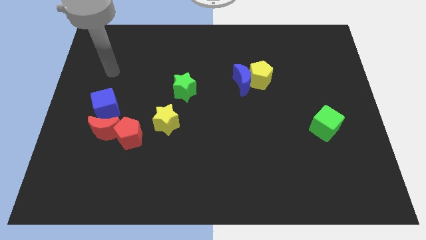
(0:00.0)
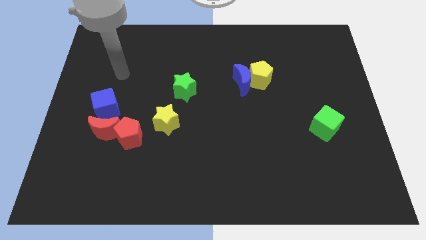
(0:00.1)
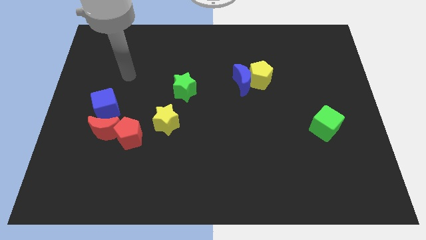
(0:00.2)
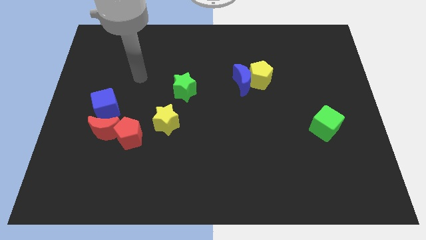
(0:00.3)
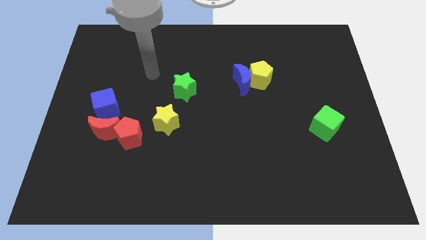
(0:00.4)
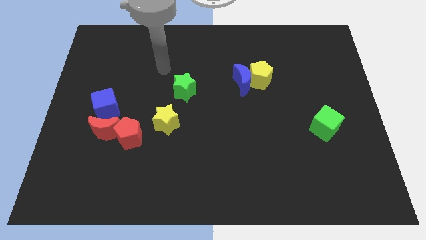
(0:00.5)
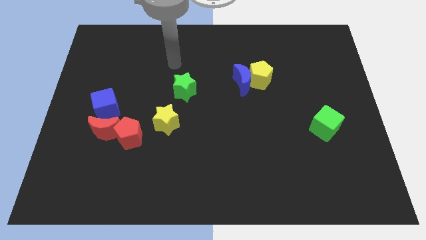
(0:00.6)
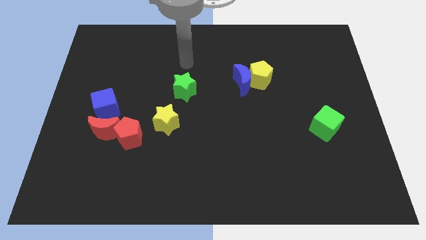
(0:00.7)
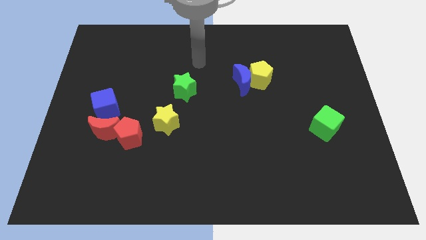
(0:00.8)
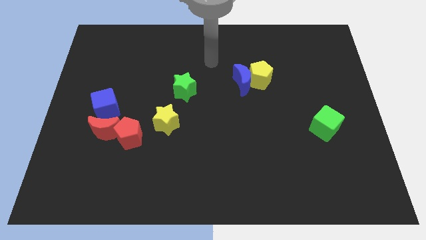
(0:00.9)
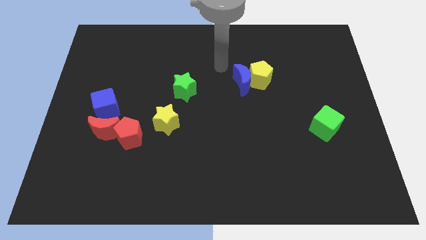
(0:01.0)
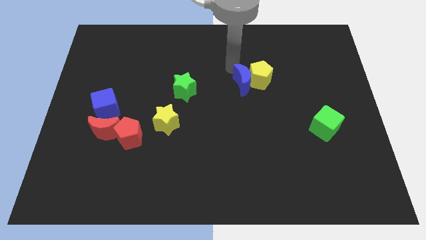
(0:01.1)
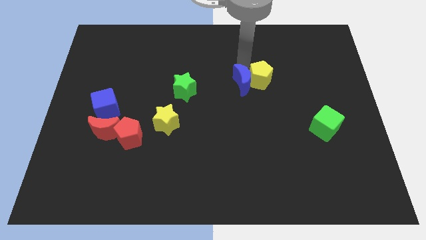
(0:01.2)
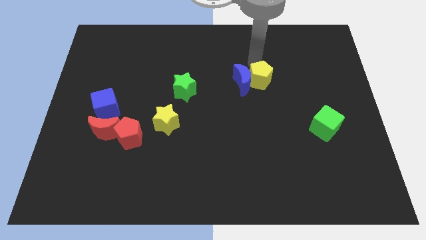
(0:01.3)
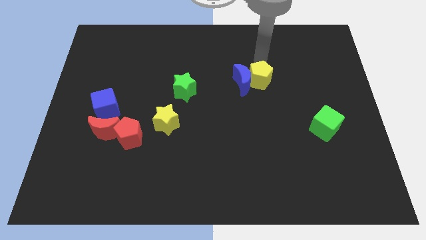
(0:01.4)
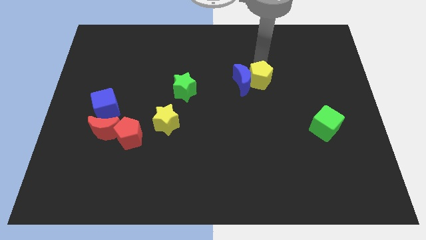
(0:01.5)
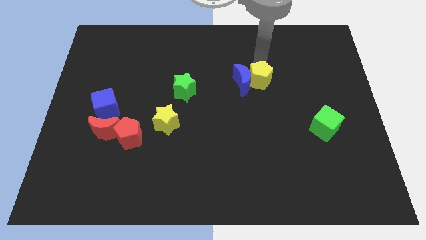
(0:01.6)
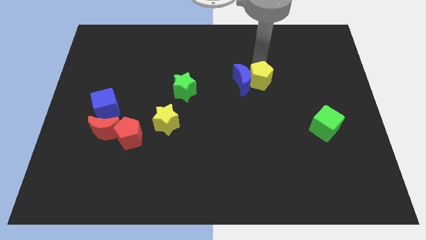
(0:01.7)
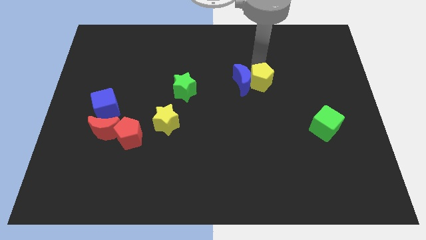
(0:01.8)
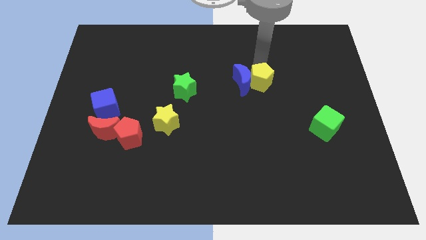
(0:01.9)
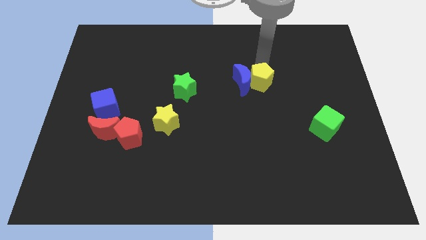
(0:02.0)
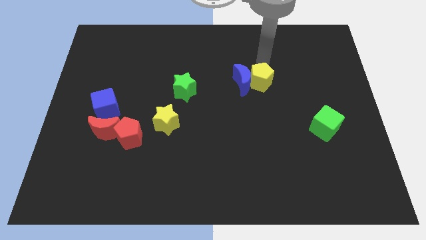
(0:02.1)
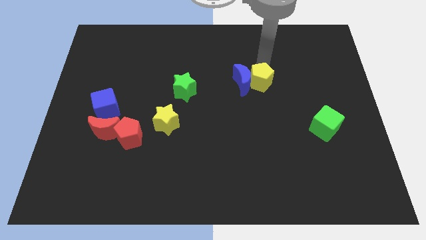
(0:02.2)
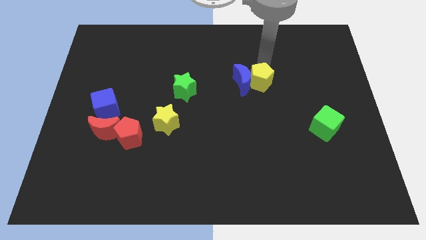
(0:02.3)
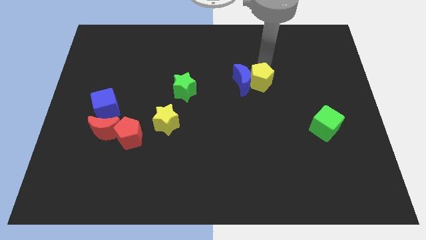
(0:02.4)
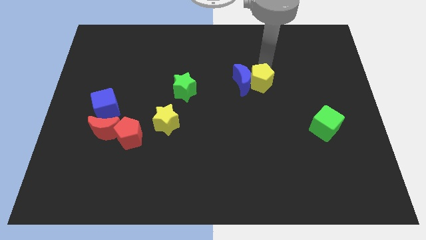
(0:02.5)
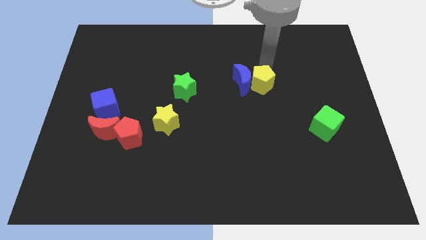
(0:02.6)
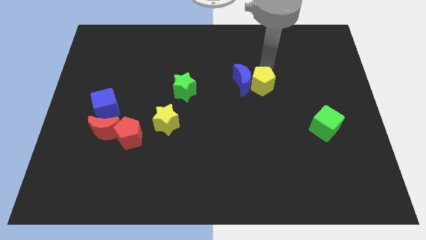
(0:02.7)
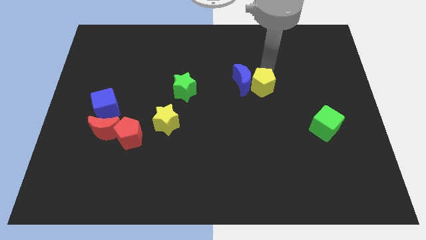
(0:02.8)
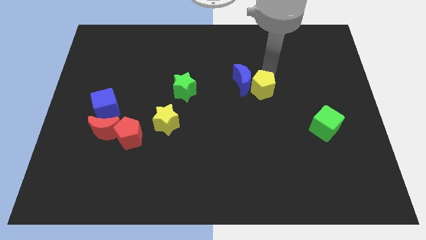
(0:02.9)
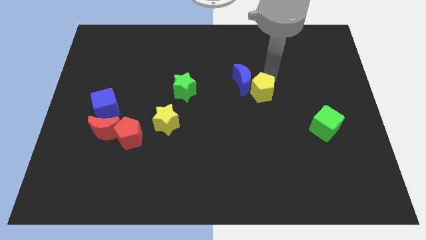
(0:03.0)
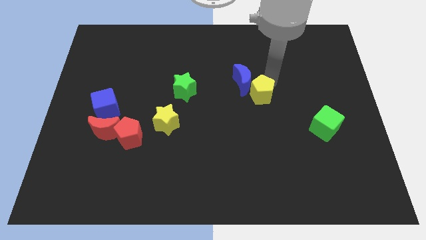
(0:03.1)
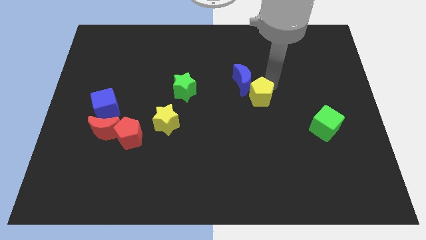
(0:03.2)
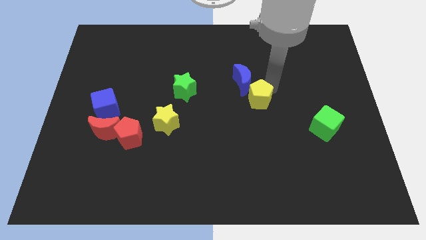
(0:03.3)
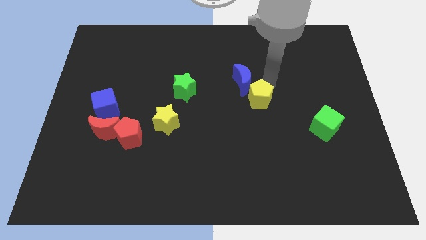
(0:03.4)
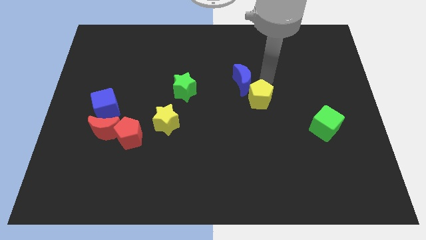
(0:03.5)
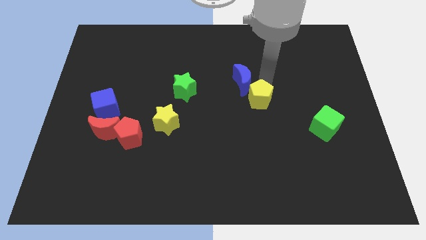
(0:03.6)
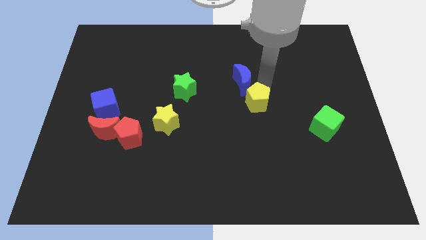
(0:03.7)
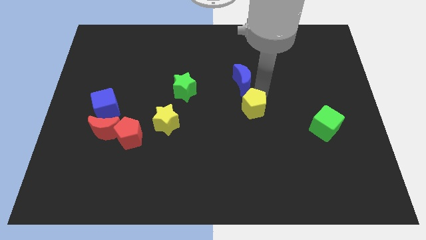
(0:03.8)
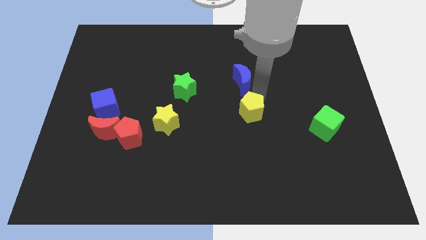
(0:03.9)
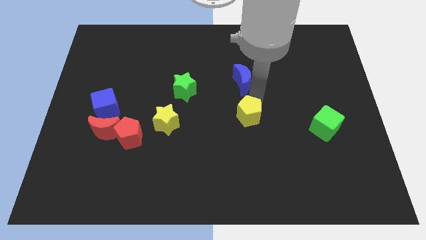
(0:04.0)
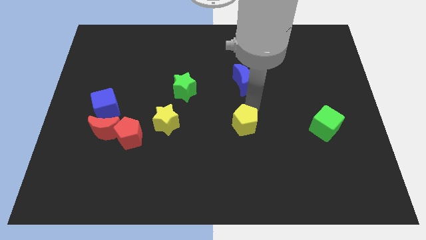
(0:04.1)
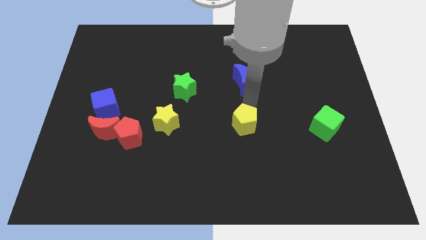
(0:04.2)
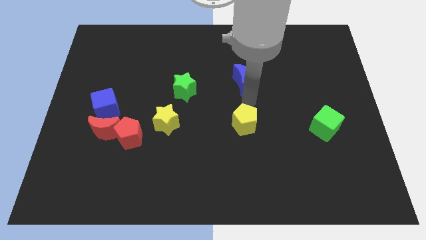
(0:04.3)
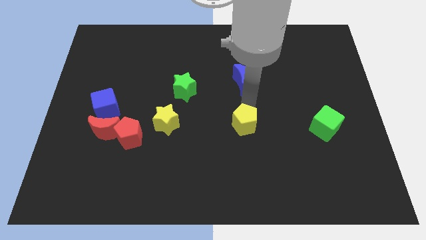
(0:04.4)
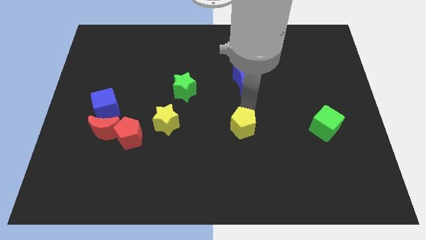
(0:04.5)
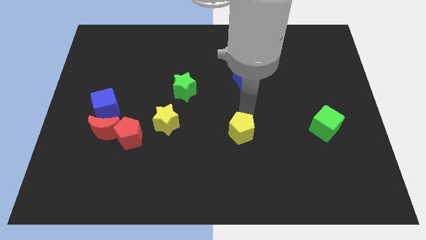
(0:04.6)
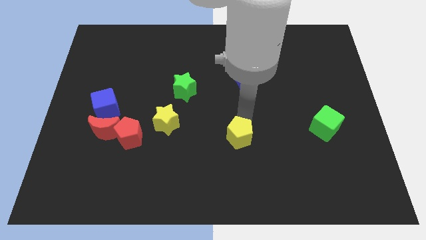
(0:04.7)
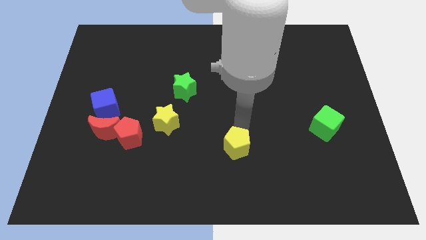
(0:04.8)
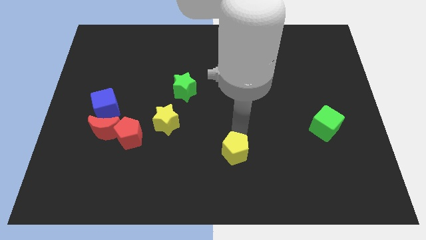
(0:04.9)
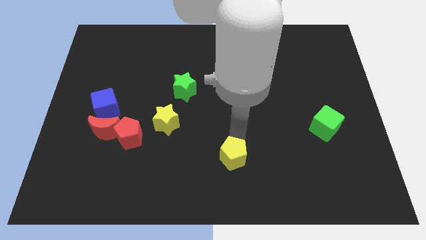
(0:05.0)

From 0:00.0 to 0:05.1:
push the yellow pentagon to the bottom side
